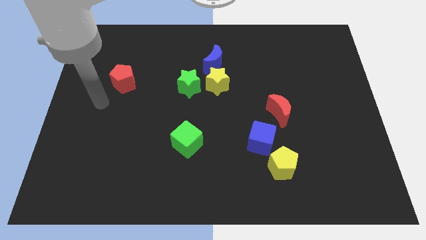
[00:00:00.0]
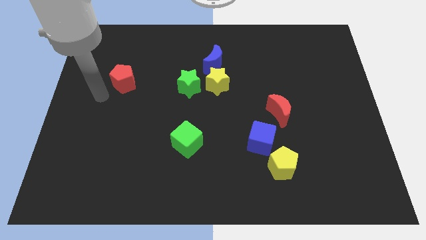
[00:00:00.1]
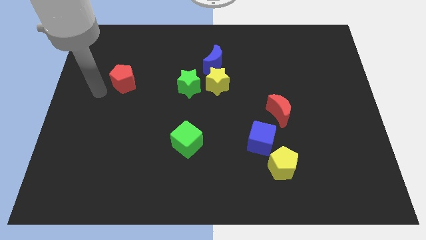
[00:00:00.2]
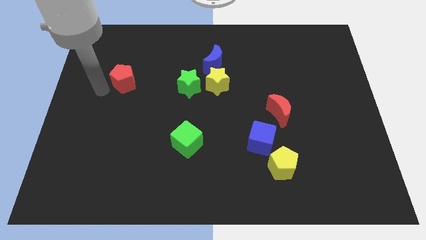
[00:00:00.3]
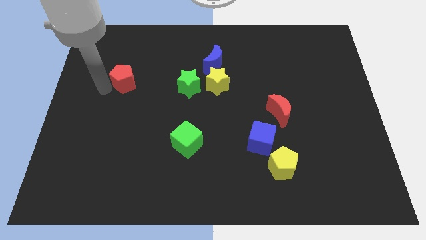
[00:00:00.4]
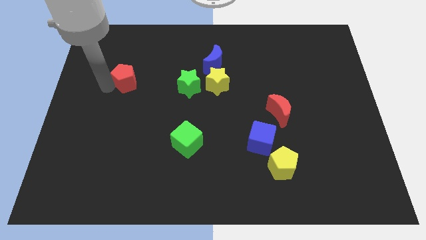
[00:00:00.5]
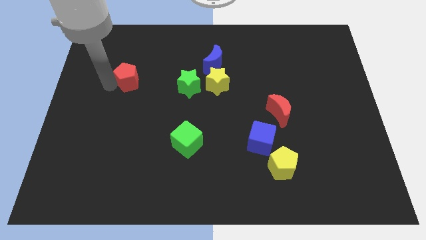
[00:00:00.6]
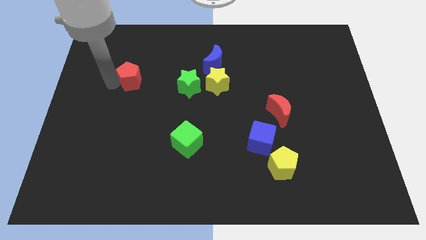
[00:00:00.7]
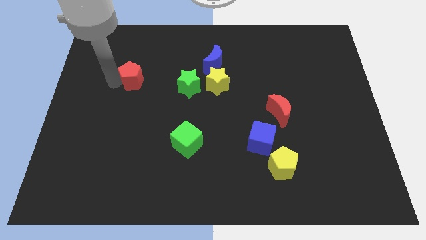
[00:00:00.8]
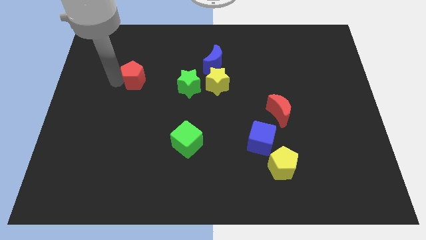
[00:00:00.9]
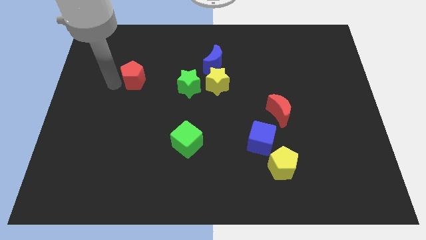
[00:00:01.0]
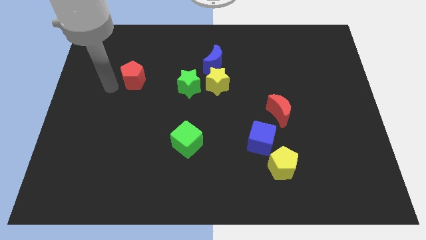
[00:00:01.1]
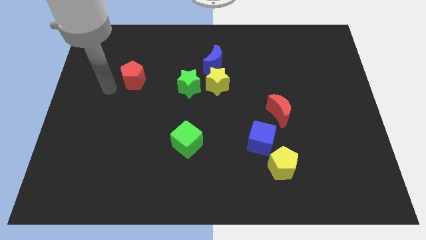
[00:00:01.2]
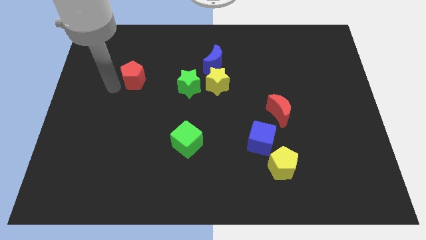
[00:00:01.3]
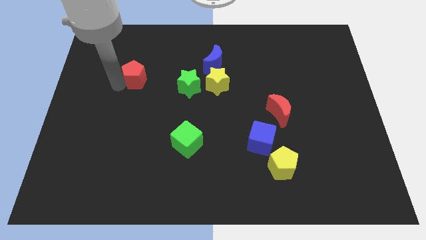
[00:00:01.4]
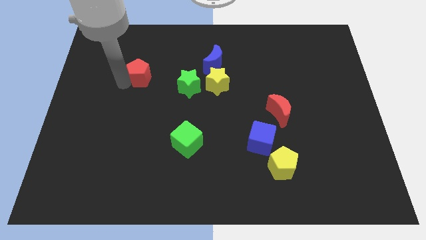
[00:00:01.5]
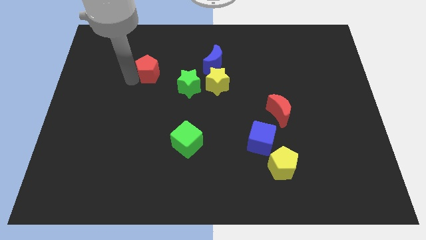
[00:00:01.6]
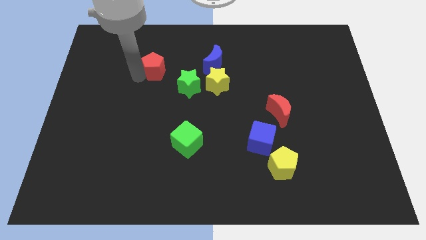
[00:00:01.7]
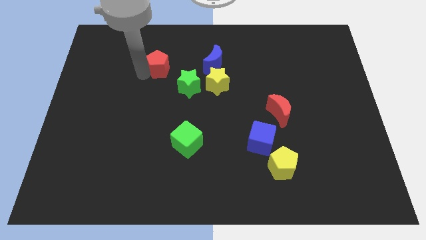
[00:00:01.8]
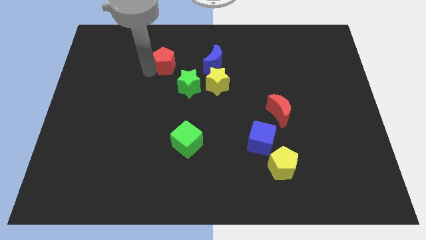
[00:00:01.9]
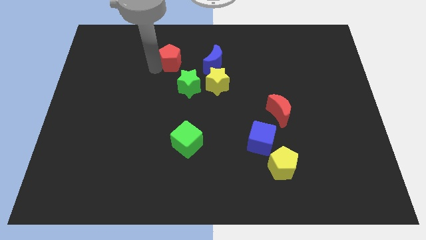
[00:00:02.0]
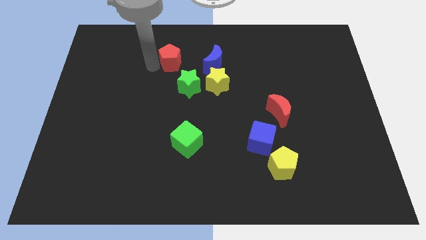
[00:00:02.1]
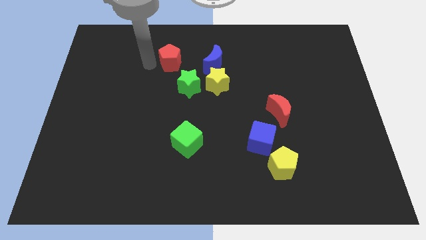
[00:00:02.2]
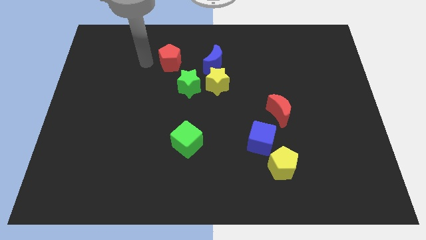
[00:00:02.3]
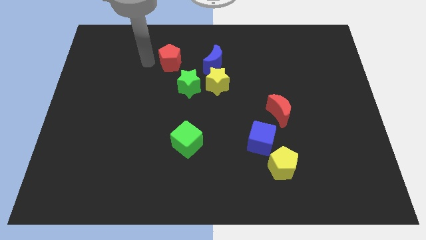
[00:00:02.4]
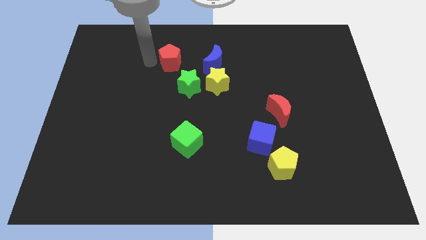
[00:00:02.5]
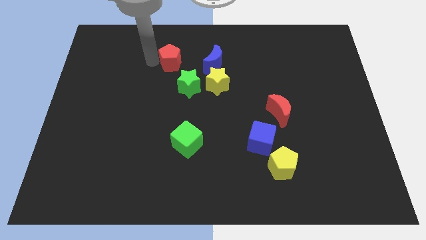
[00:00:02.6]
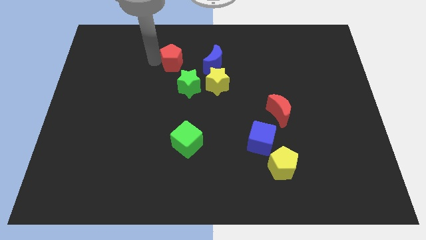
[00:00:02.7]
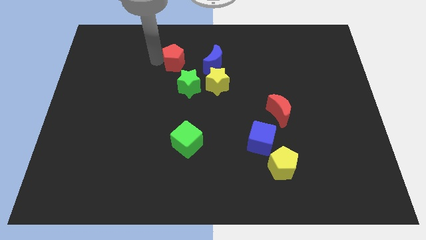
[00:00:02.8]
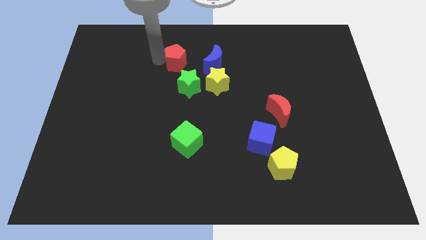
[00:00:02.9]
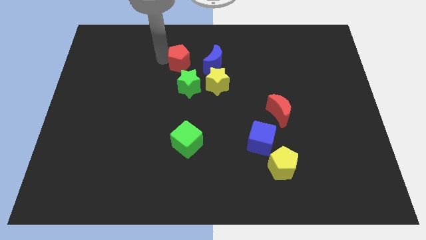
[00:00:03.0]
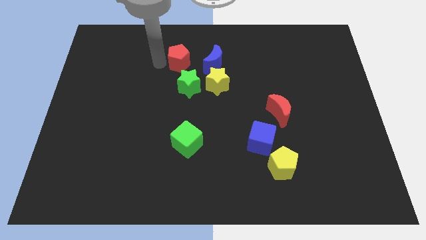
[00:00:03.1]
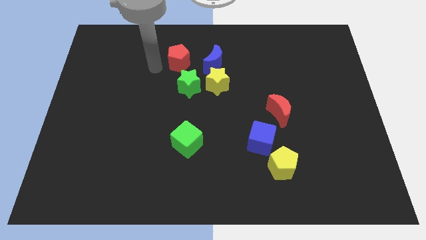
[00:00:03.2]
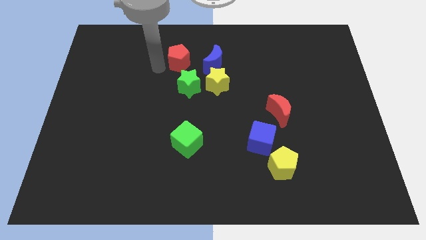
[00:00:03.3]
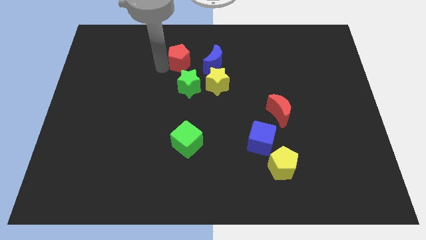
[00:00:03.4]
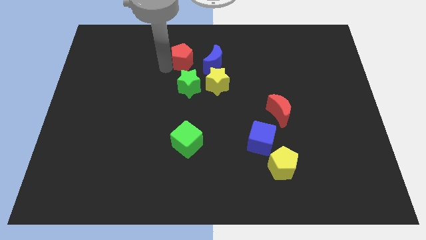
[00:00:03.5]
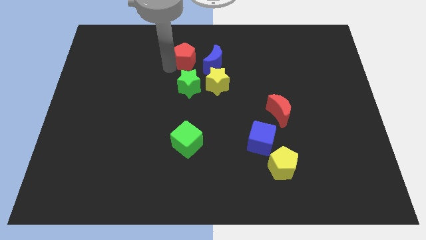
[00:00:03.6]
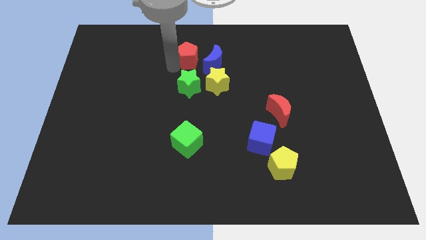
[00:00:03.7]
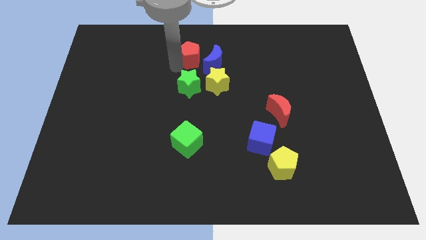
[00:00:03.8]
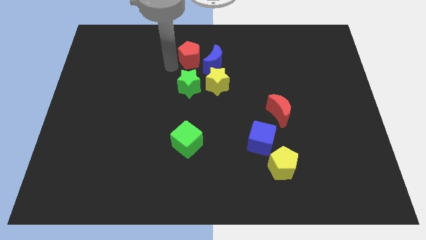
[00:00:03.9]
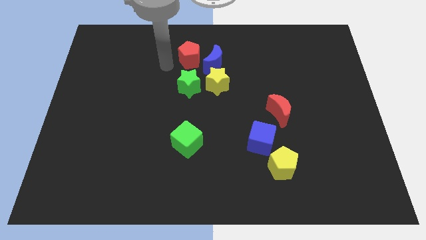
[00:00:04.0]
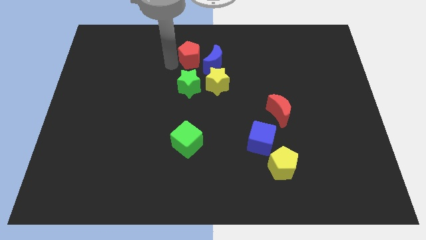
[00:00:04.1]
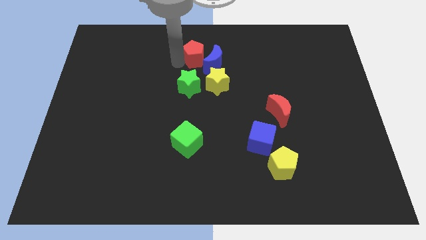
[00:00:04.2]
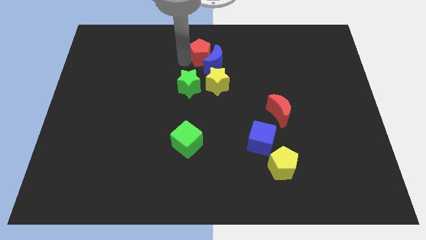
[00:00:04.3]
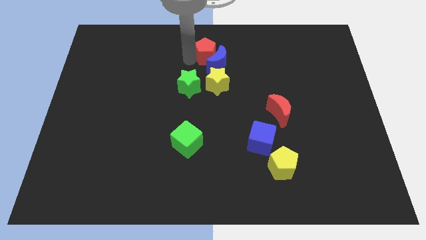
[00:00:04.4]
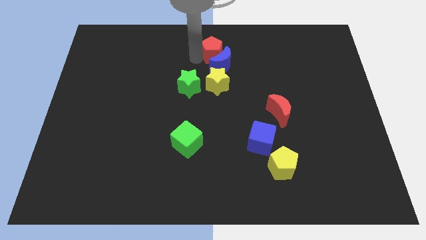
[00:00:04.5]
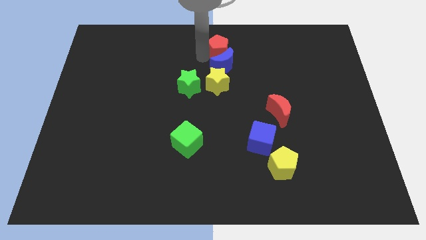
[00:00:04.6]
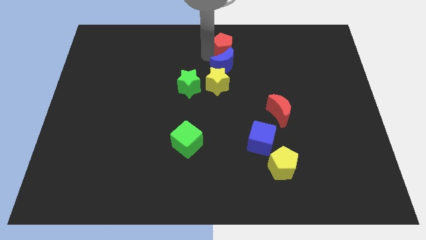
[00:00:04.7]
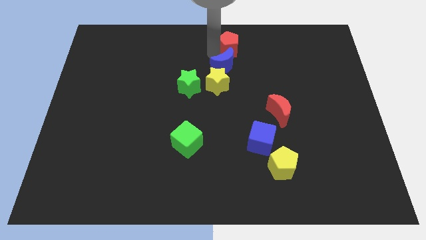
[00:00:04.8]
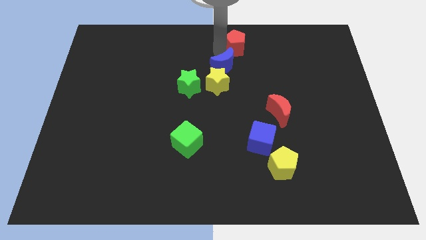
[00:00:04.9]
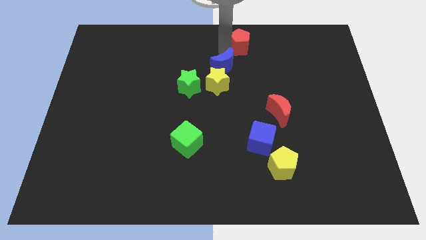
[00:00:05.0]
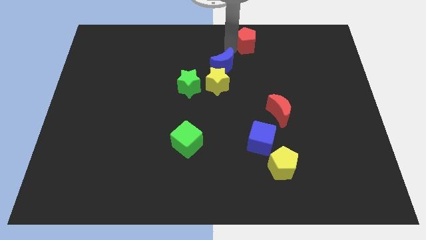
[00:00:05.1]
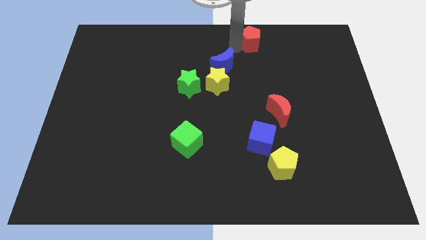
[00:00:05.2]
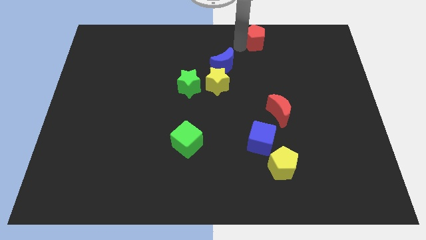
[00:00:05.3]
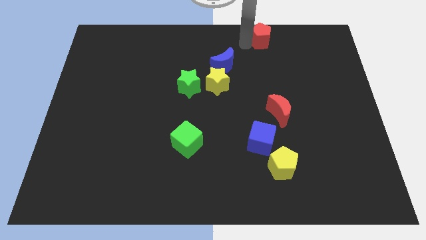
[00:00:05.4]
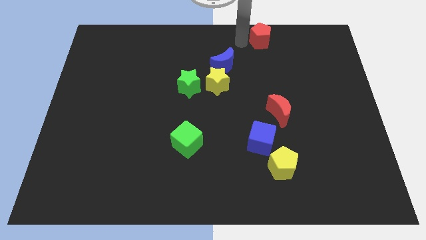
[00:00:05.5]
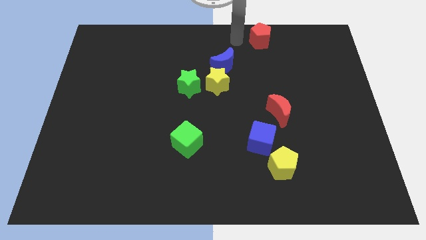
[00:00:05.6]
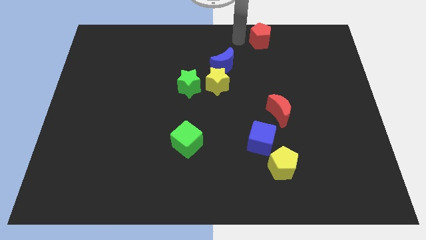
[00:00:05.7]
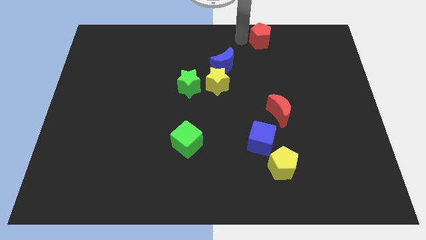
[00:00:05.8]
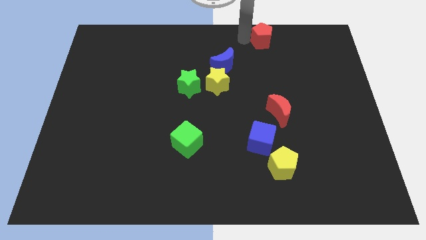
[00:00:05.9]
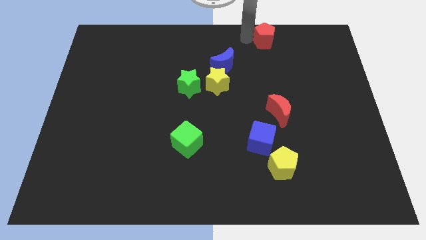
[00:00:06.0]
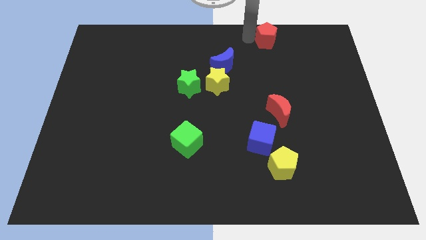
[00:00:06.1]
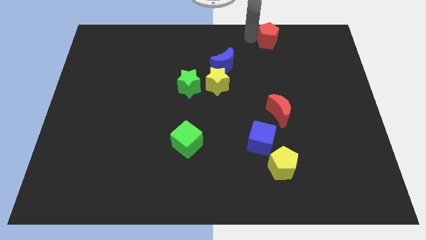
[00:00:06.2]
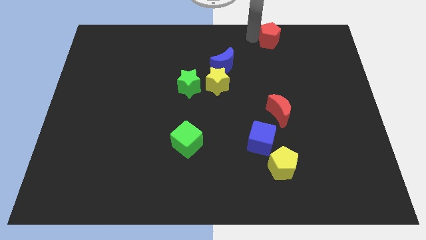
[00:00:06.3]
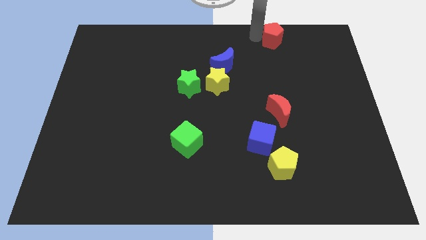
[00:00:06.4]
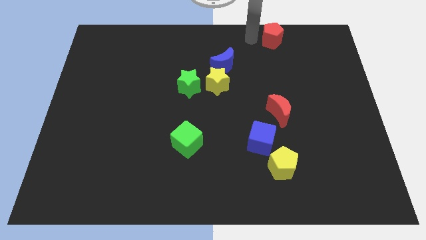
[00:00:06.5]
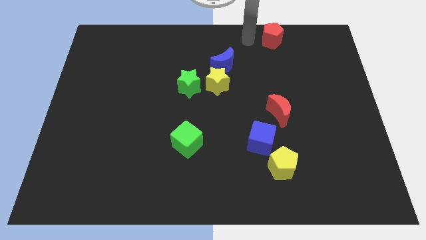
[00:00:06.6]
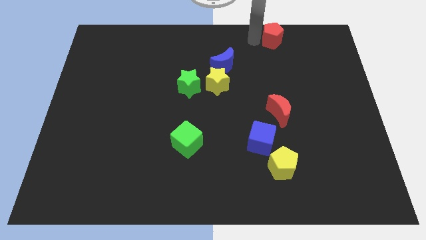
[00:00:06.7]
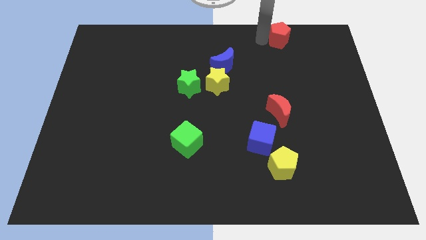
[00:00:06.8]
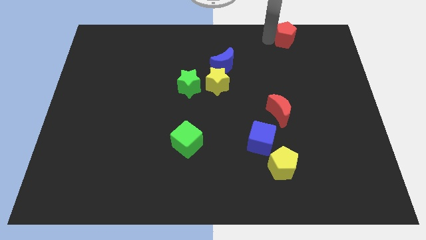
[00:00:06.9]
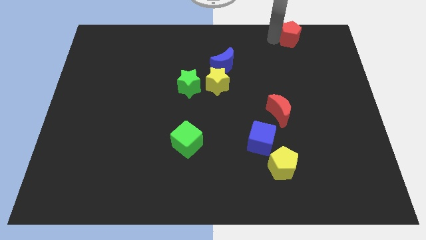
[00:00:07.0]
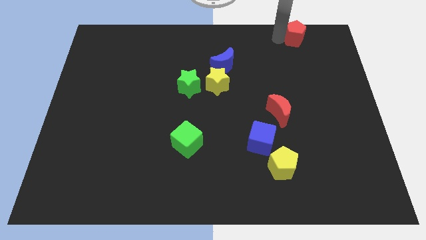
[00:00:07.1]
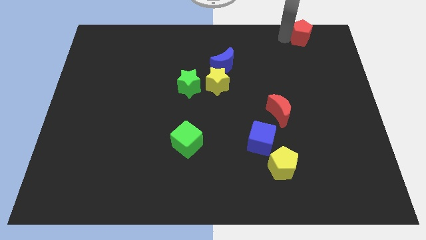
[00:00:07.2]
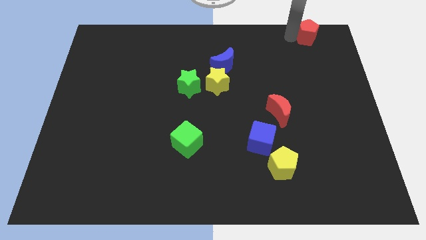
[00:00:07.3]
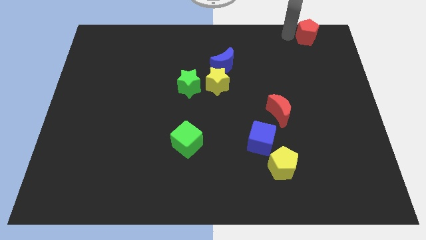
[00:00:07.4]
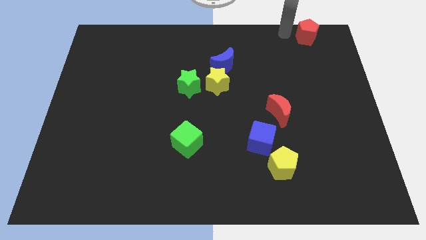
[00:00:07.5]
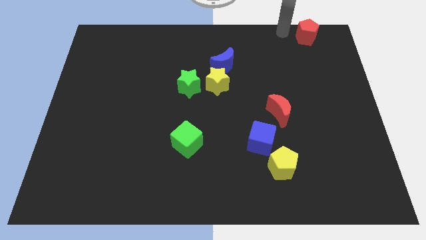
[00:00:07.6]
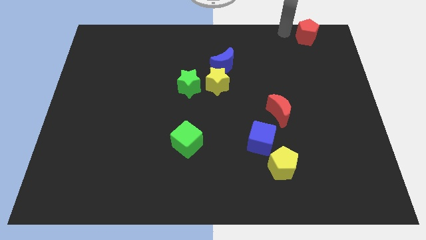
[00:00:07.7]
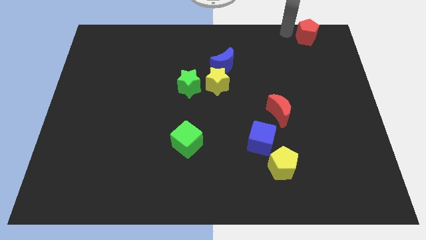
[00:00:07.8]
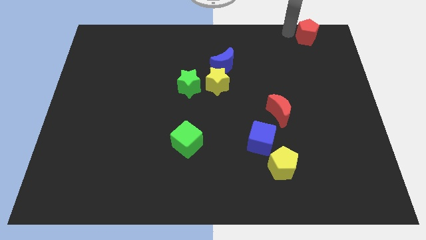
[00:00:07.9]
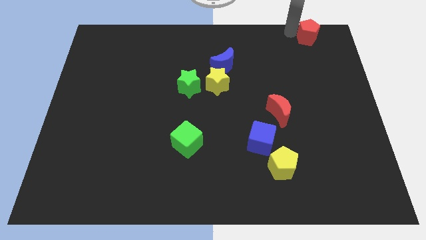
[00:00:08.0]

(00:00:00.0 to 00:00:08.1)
put the red pentagon to the top right
